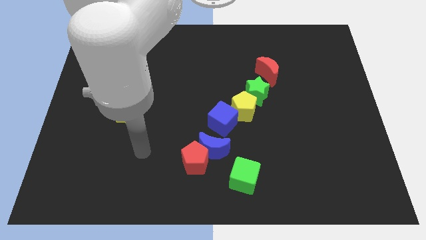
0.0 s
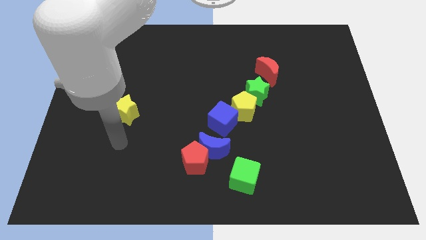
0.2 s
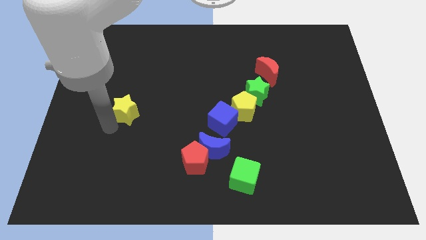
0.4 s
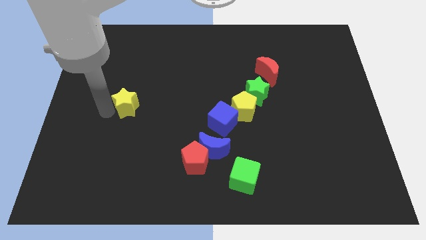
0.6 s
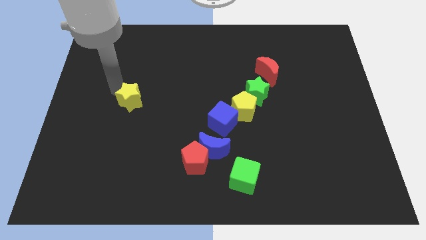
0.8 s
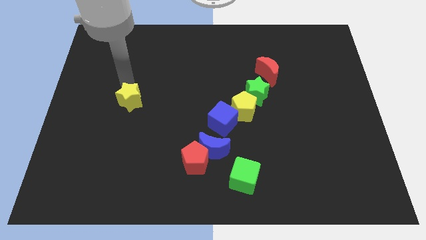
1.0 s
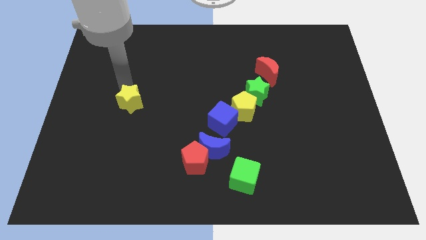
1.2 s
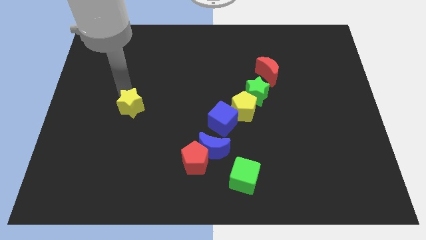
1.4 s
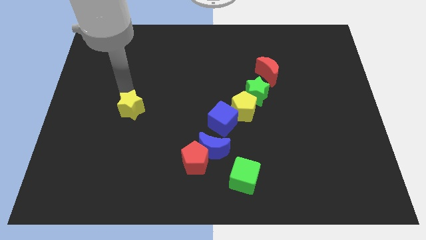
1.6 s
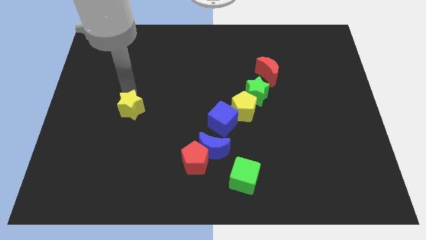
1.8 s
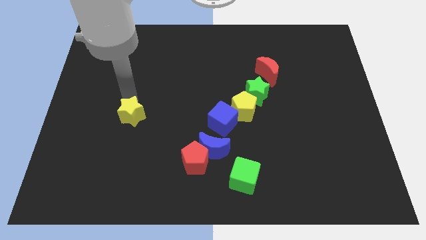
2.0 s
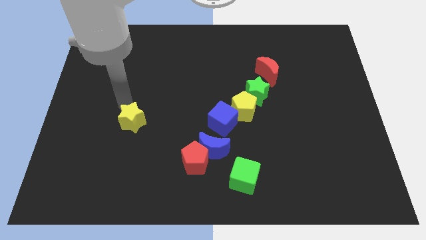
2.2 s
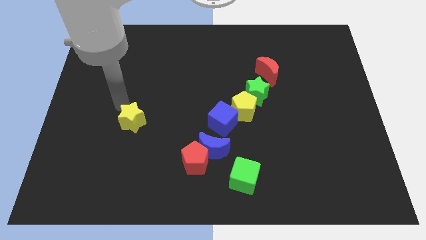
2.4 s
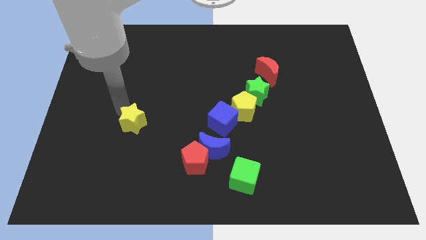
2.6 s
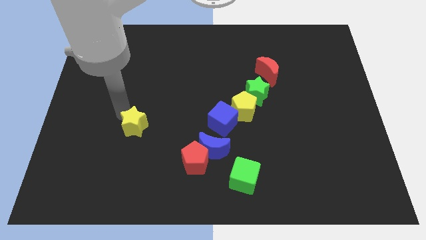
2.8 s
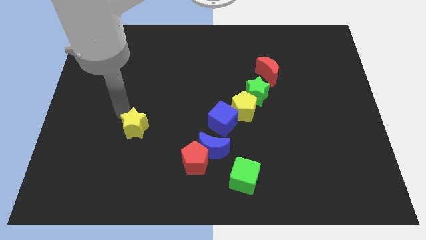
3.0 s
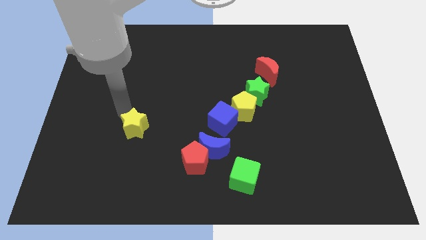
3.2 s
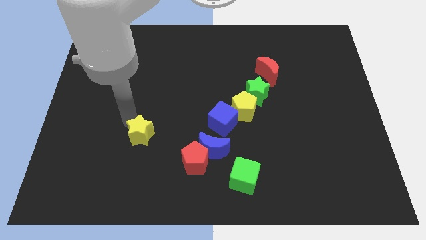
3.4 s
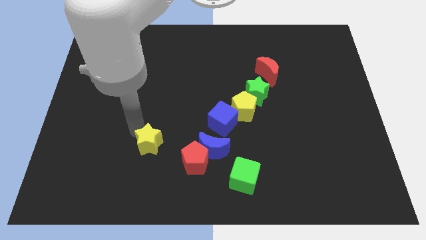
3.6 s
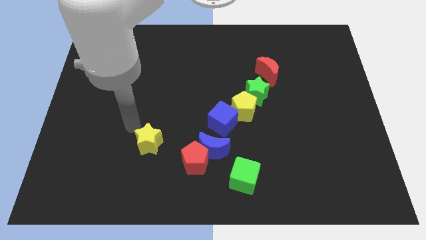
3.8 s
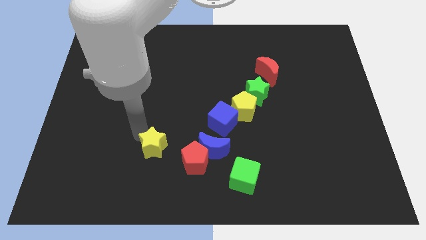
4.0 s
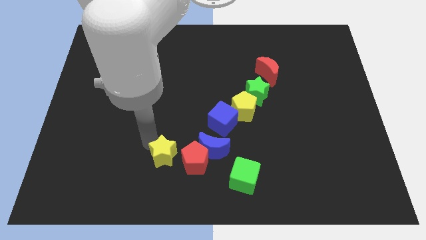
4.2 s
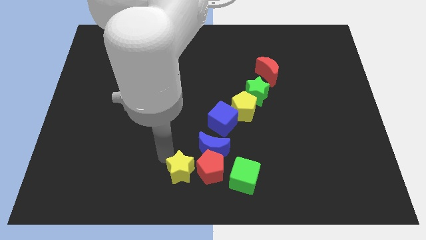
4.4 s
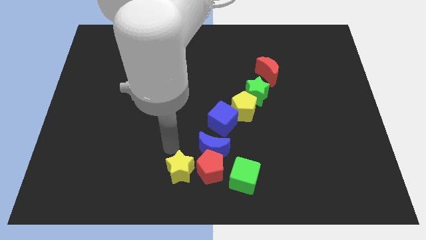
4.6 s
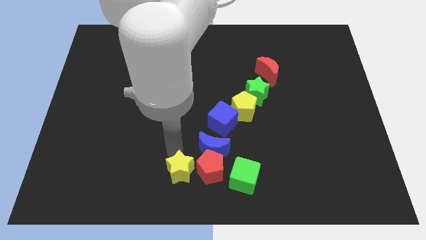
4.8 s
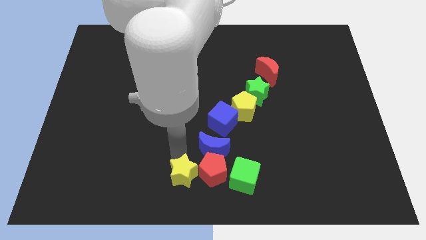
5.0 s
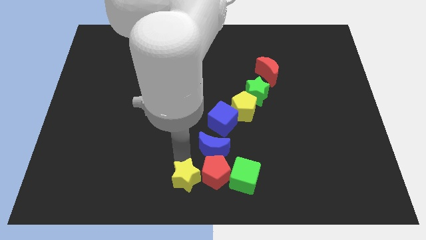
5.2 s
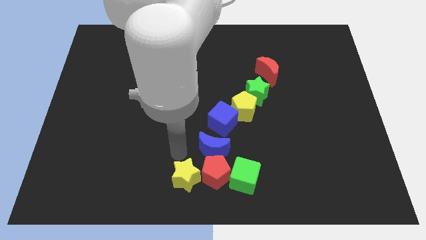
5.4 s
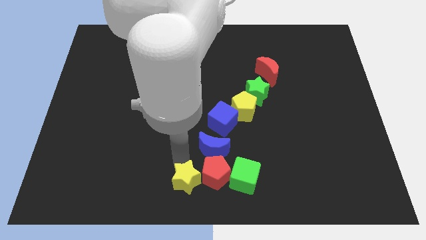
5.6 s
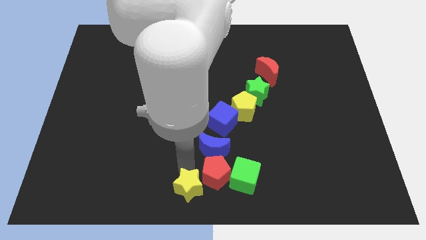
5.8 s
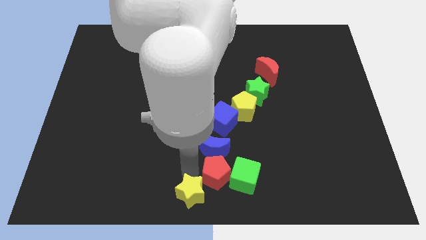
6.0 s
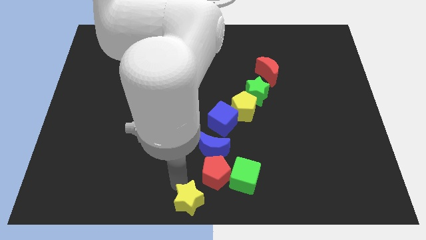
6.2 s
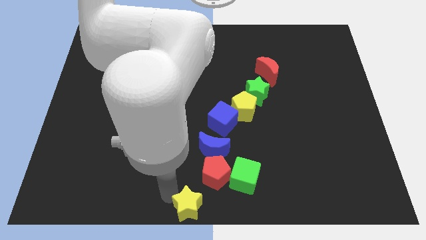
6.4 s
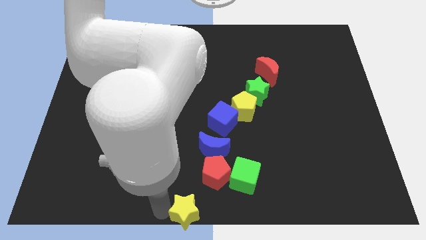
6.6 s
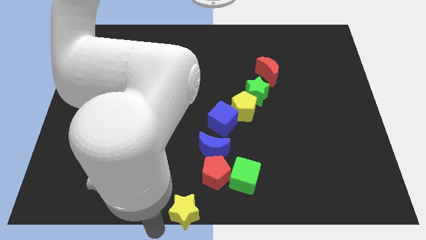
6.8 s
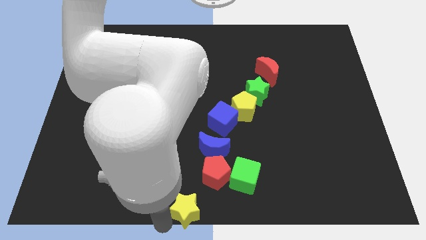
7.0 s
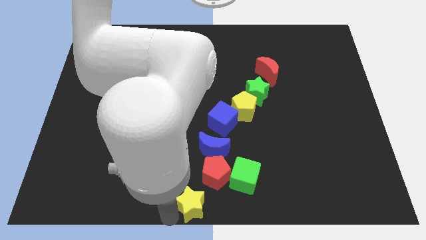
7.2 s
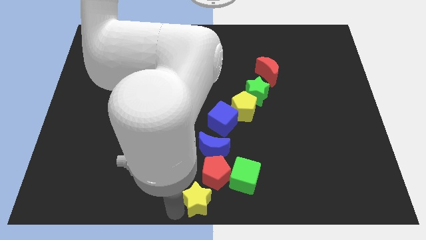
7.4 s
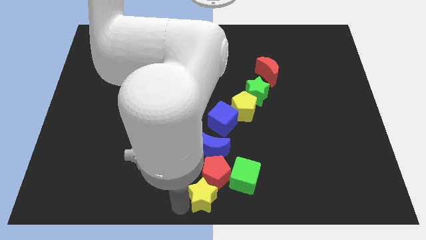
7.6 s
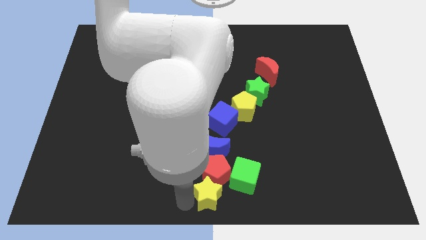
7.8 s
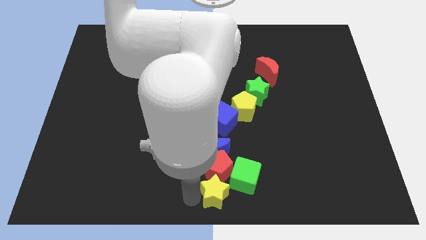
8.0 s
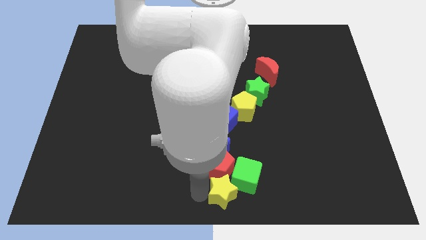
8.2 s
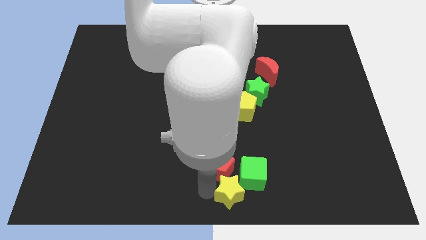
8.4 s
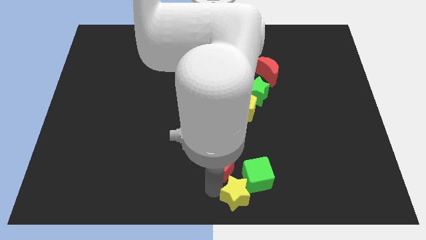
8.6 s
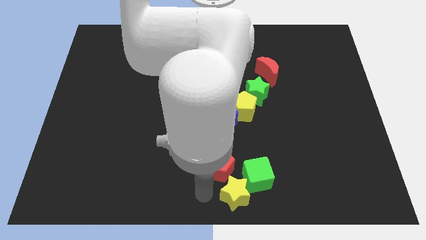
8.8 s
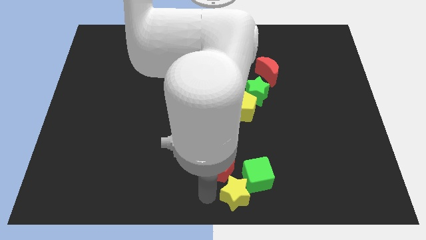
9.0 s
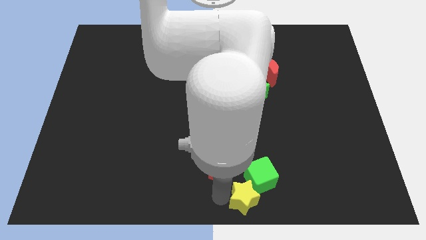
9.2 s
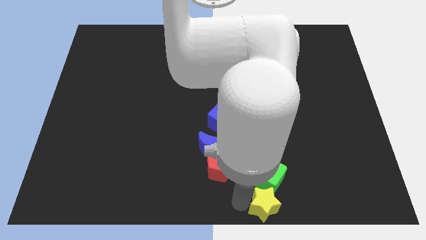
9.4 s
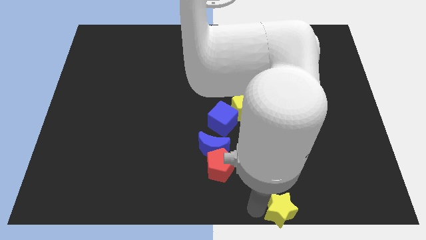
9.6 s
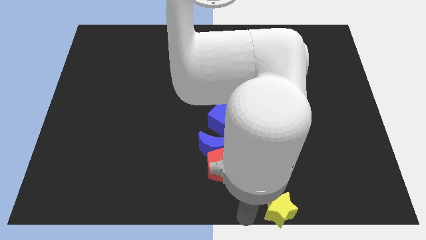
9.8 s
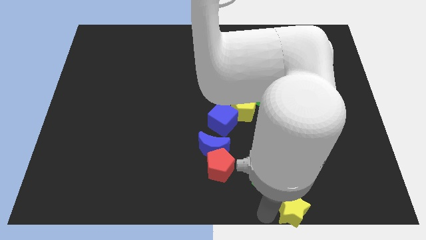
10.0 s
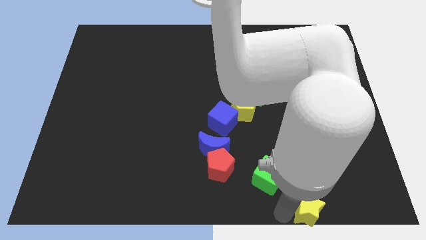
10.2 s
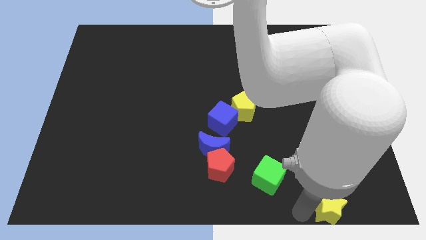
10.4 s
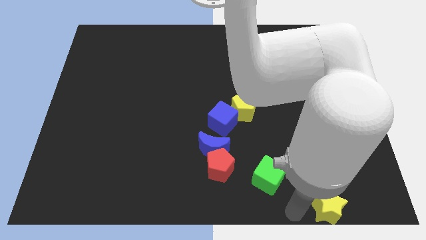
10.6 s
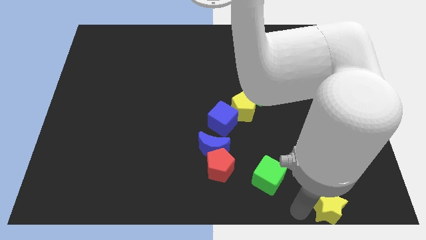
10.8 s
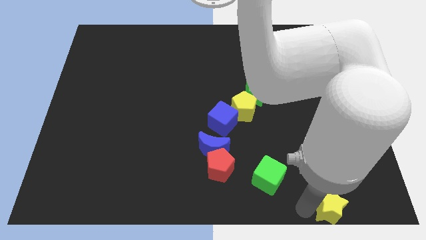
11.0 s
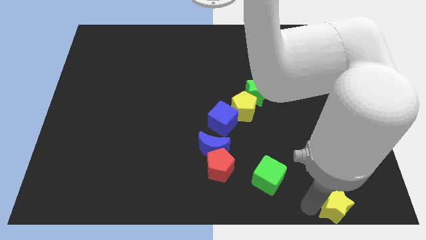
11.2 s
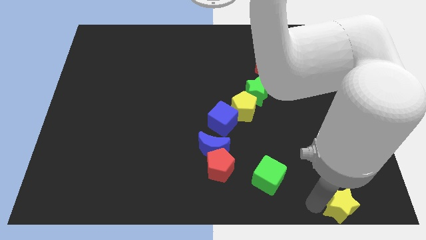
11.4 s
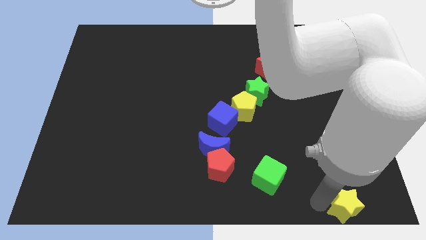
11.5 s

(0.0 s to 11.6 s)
slide the yellow star to the bottom right of the board
